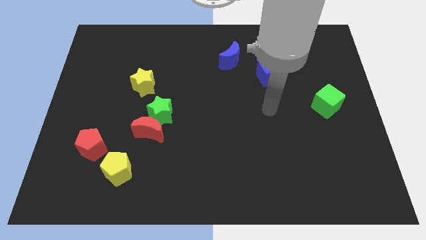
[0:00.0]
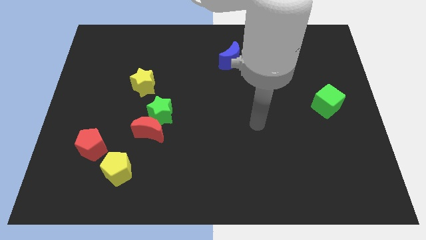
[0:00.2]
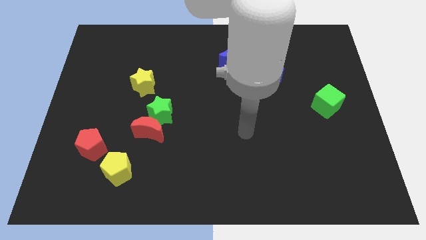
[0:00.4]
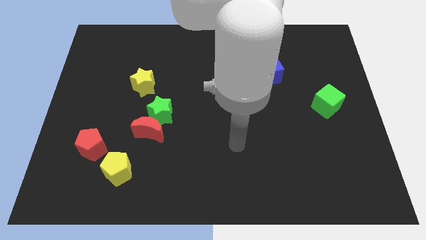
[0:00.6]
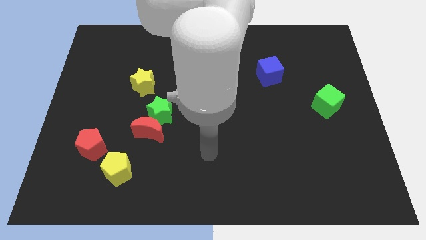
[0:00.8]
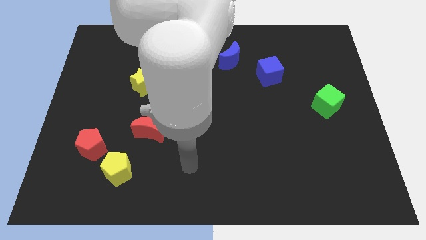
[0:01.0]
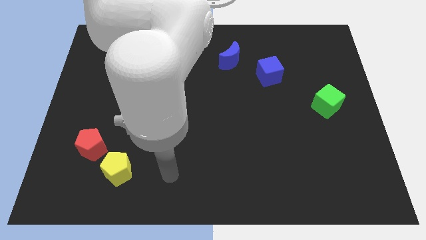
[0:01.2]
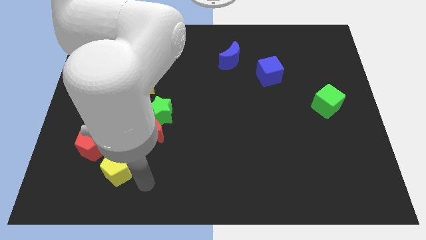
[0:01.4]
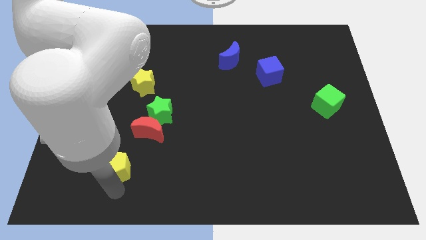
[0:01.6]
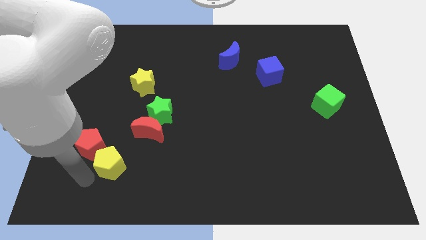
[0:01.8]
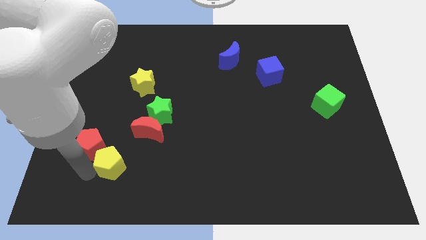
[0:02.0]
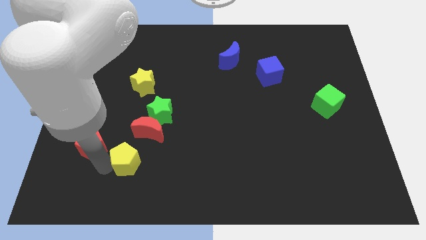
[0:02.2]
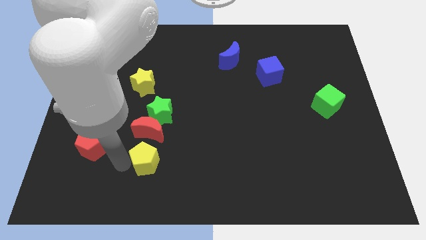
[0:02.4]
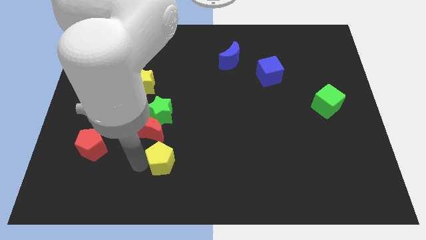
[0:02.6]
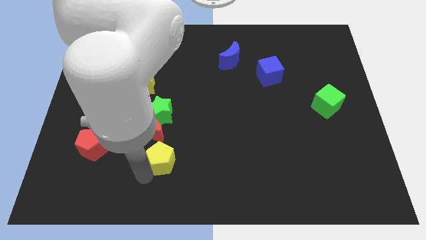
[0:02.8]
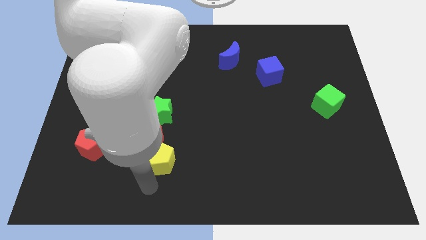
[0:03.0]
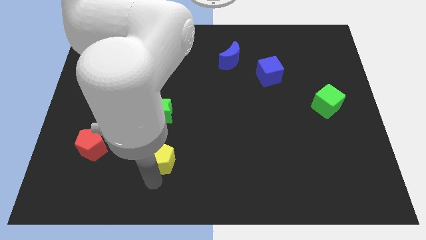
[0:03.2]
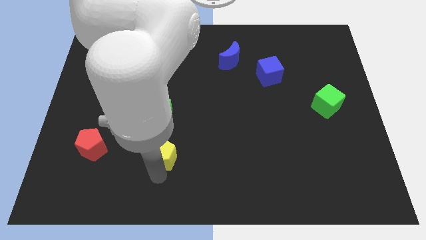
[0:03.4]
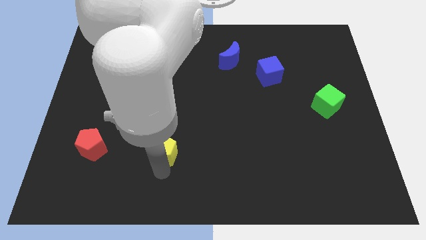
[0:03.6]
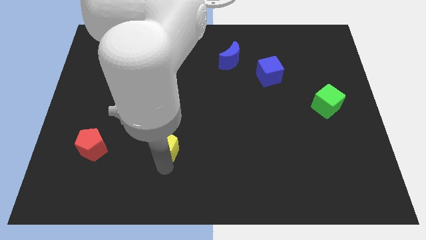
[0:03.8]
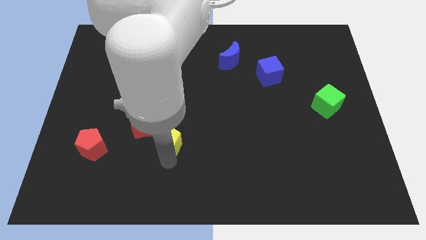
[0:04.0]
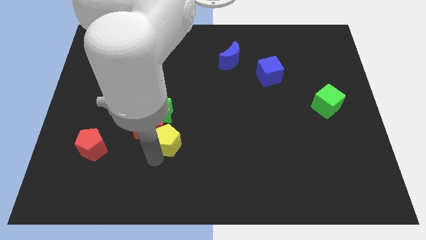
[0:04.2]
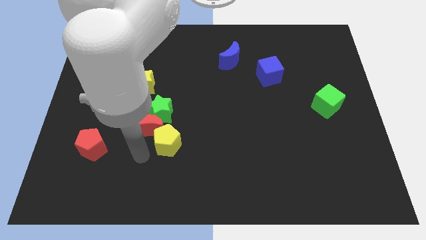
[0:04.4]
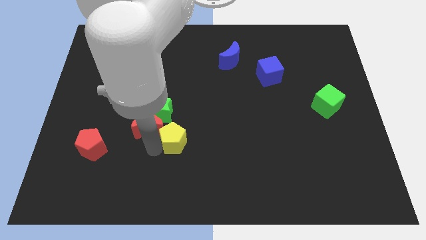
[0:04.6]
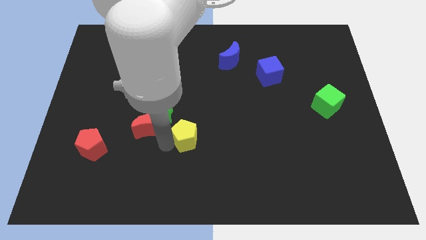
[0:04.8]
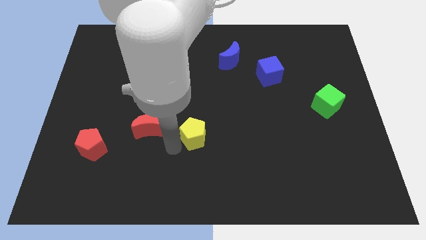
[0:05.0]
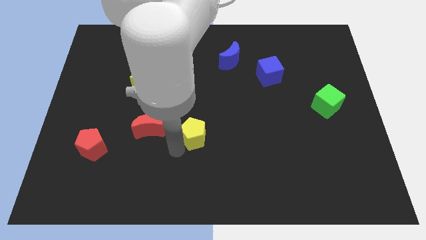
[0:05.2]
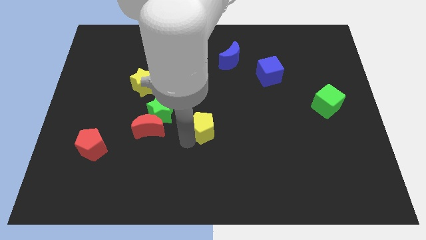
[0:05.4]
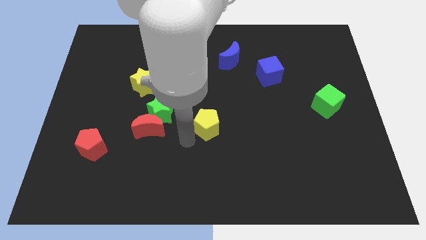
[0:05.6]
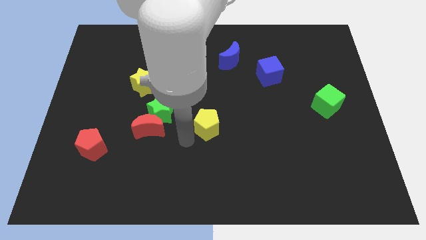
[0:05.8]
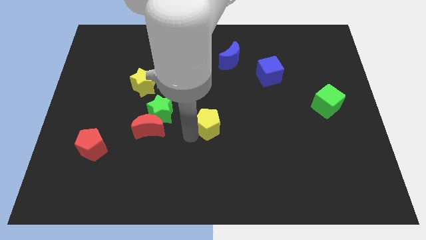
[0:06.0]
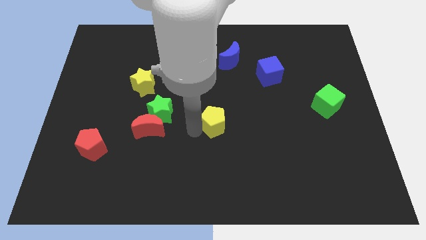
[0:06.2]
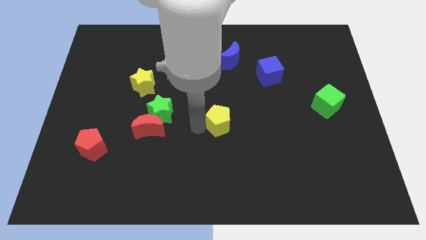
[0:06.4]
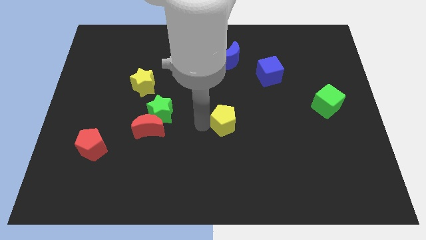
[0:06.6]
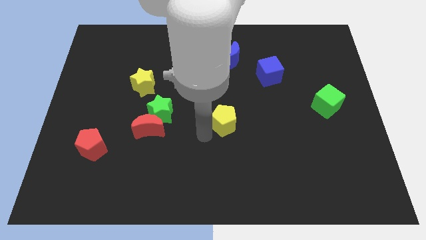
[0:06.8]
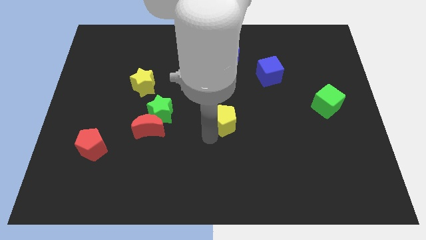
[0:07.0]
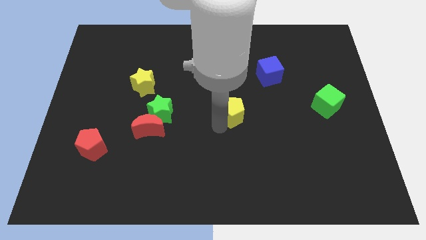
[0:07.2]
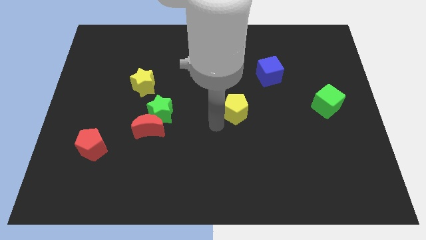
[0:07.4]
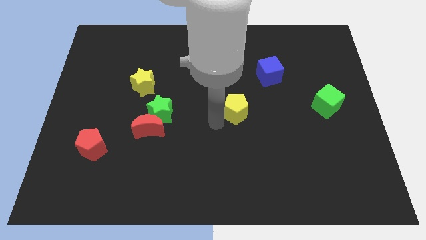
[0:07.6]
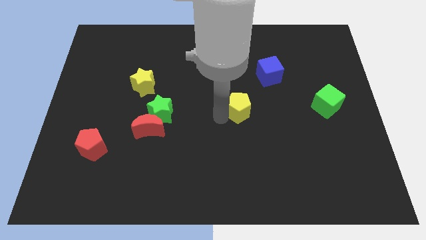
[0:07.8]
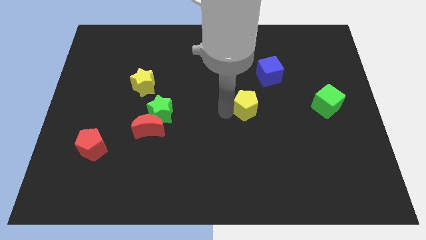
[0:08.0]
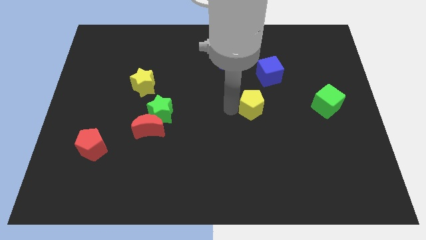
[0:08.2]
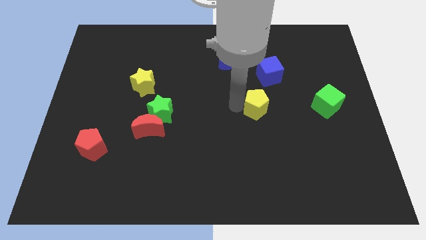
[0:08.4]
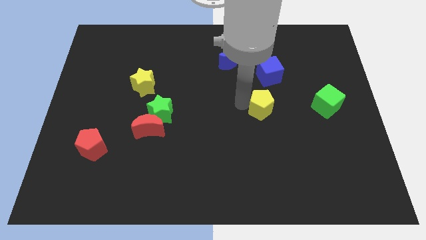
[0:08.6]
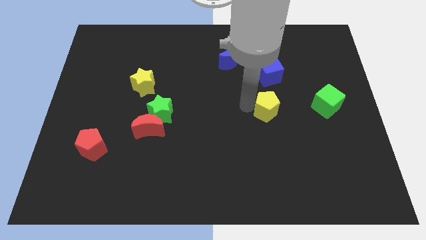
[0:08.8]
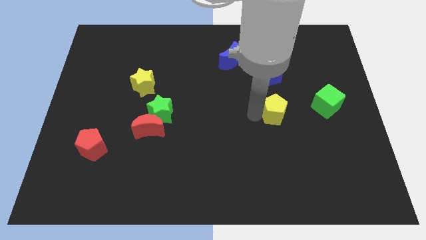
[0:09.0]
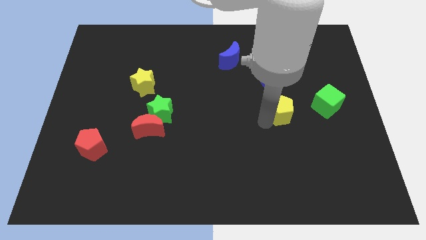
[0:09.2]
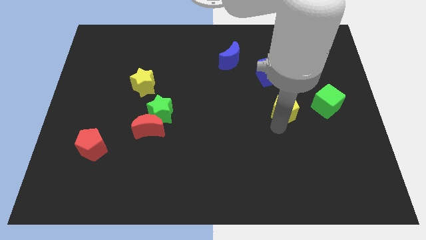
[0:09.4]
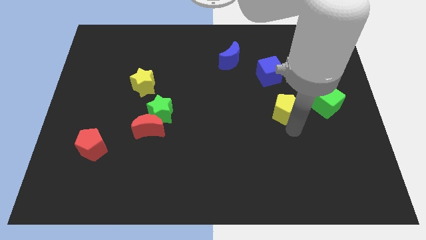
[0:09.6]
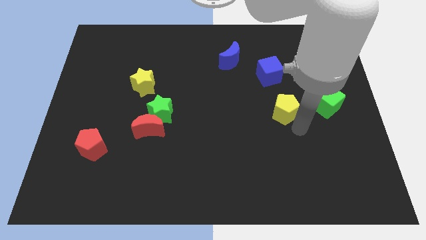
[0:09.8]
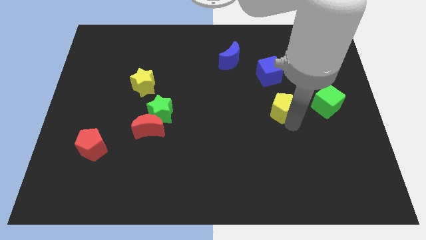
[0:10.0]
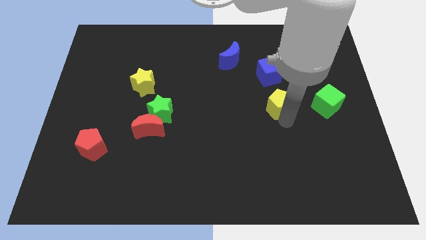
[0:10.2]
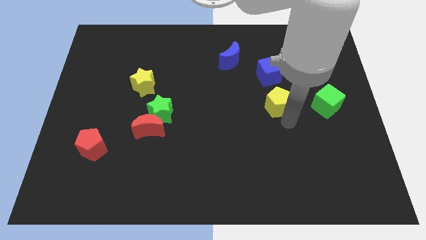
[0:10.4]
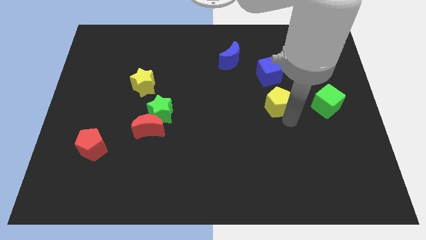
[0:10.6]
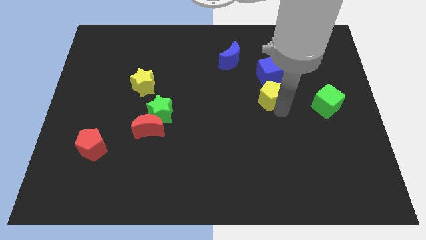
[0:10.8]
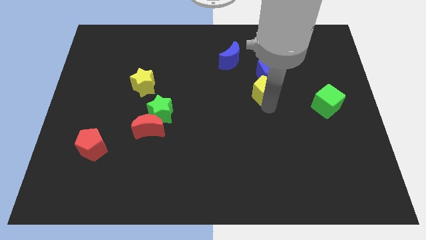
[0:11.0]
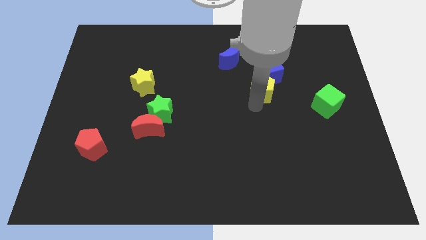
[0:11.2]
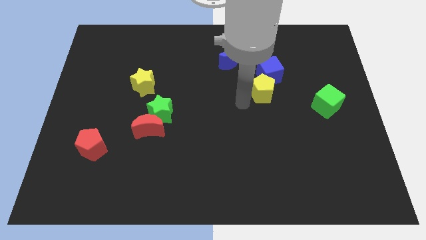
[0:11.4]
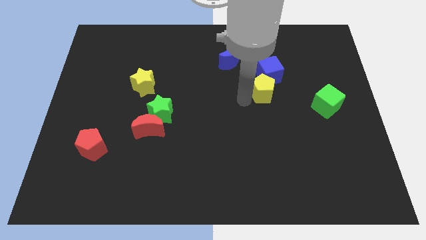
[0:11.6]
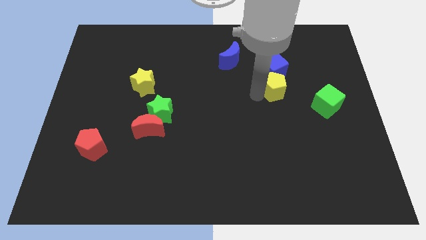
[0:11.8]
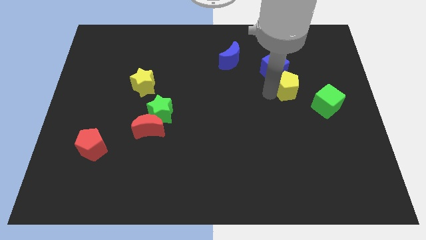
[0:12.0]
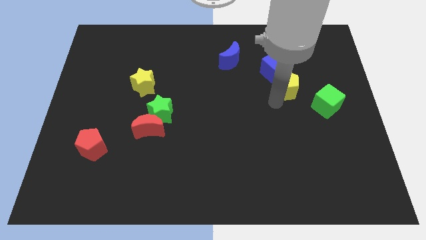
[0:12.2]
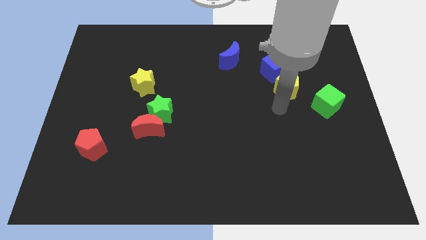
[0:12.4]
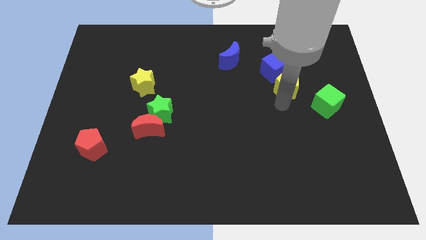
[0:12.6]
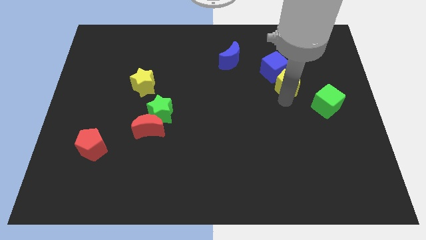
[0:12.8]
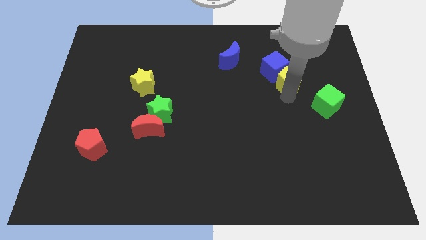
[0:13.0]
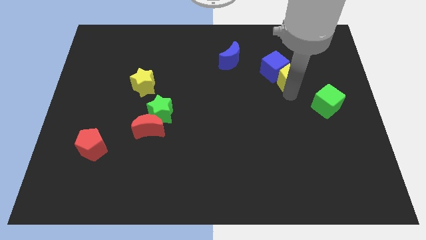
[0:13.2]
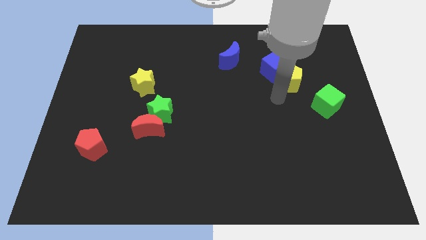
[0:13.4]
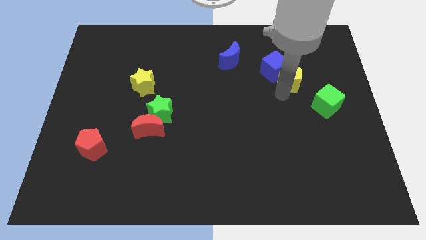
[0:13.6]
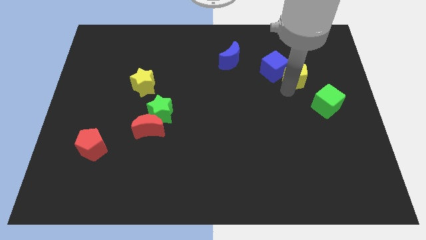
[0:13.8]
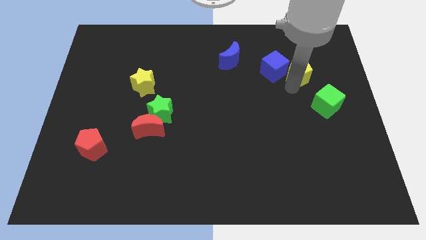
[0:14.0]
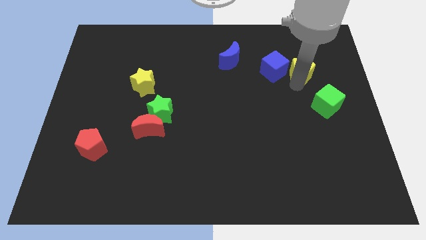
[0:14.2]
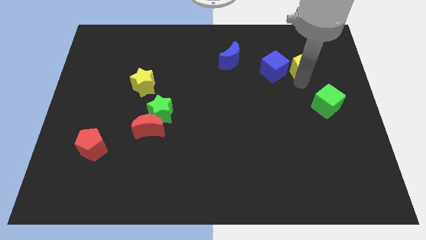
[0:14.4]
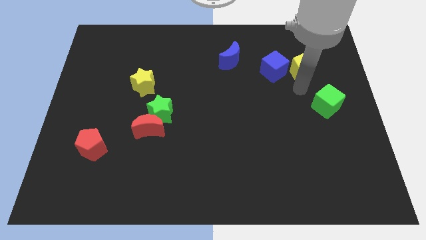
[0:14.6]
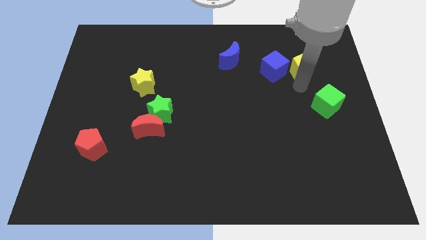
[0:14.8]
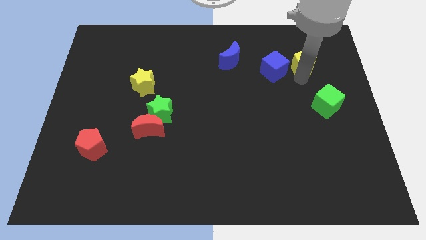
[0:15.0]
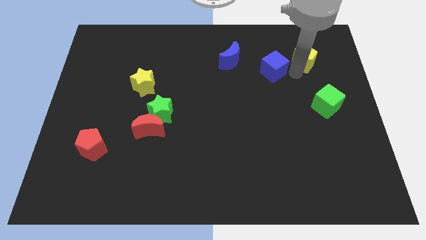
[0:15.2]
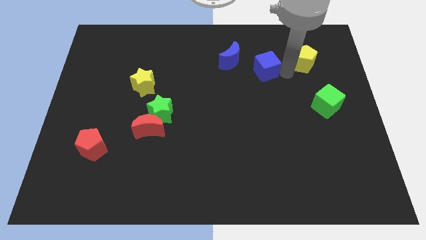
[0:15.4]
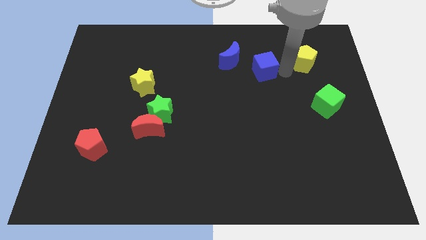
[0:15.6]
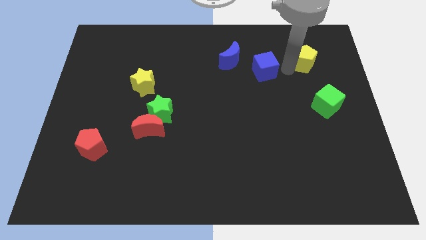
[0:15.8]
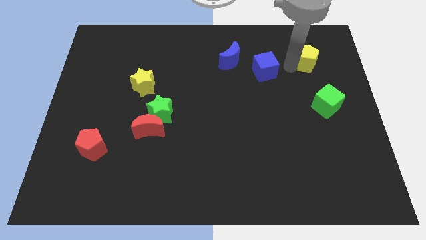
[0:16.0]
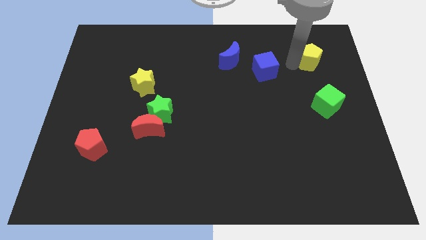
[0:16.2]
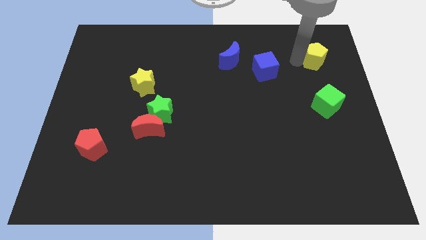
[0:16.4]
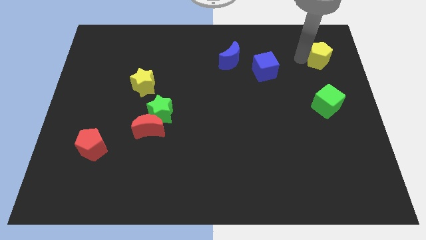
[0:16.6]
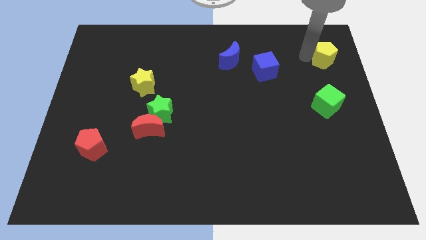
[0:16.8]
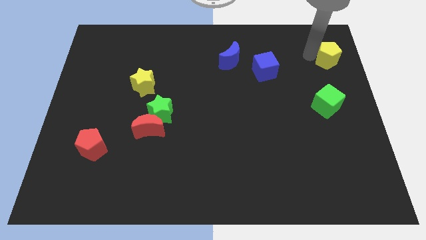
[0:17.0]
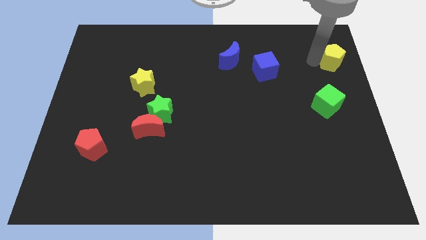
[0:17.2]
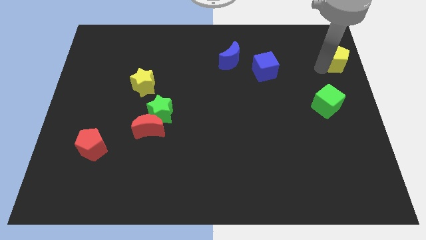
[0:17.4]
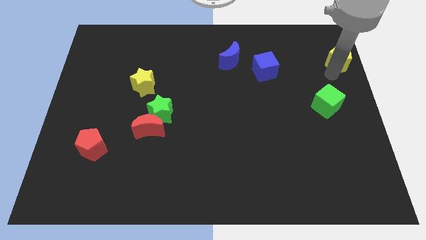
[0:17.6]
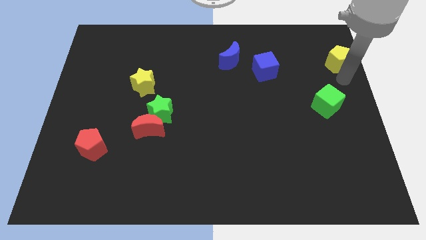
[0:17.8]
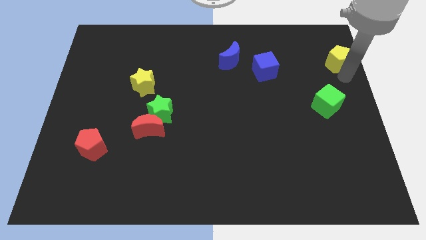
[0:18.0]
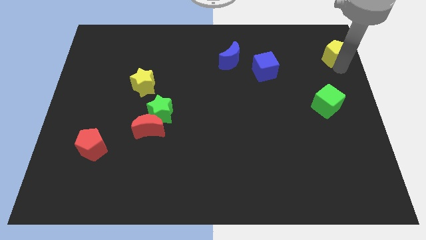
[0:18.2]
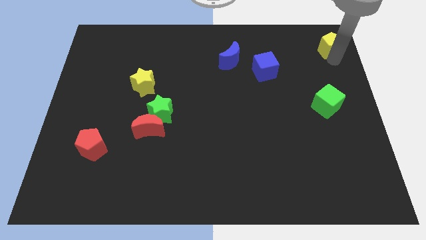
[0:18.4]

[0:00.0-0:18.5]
put the yellow pentagon to the upper right corner
